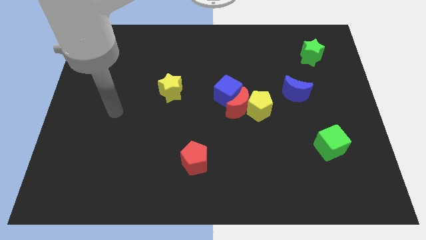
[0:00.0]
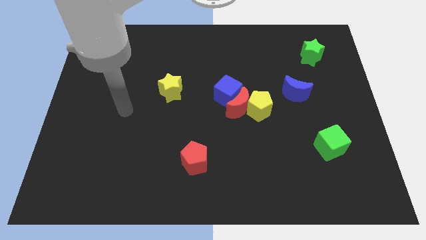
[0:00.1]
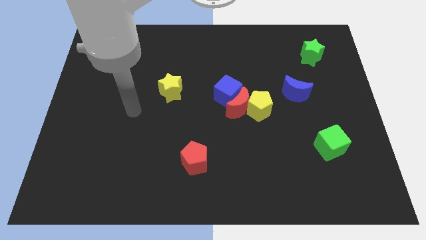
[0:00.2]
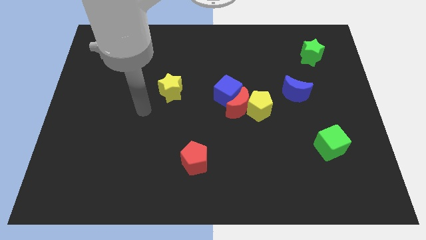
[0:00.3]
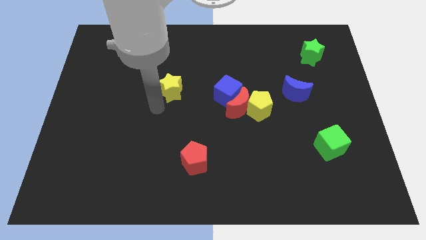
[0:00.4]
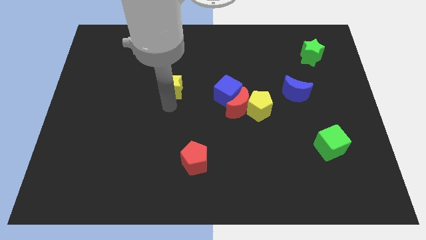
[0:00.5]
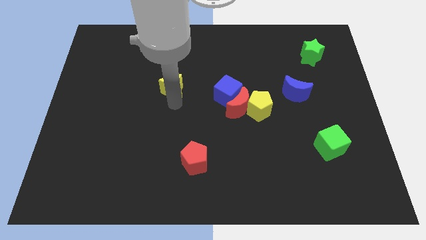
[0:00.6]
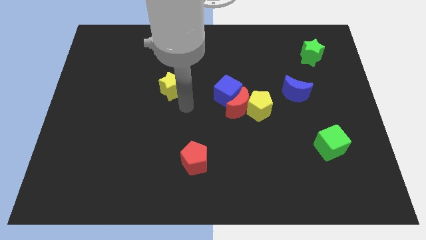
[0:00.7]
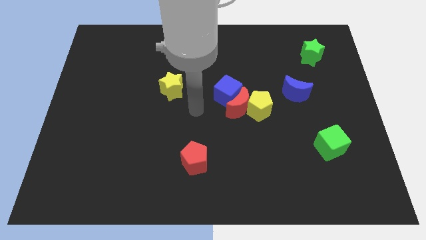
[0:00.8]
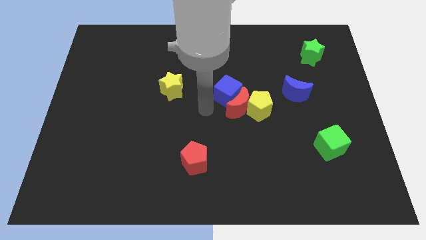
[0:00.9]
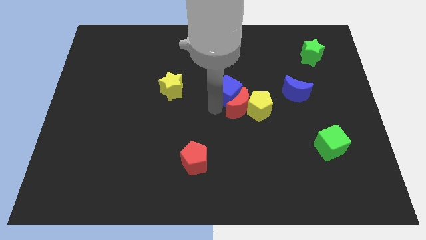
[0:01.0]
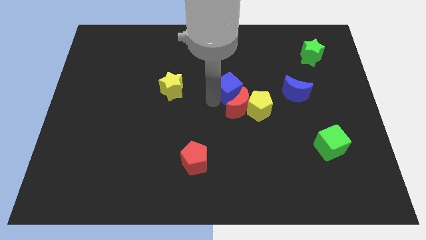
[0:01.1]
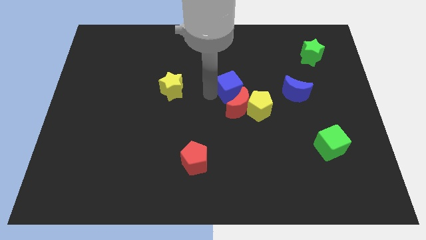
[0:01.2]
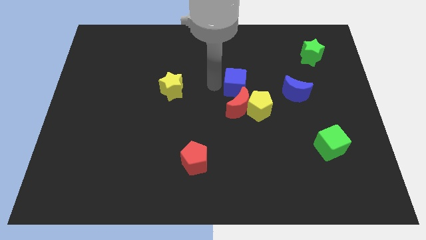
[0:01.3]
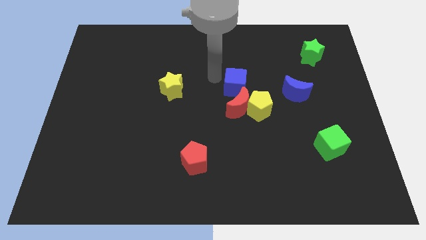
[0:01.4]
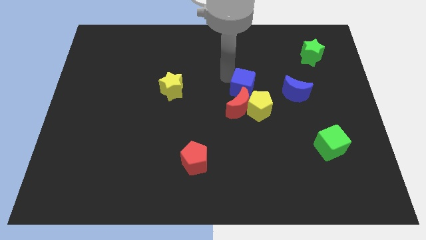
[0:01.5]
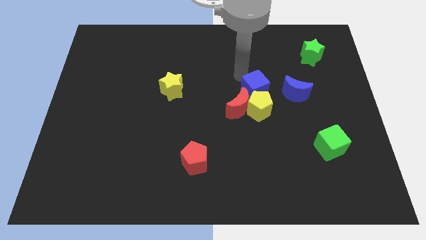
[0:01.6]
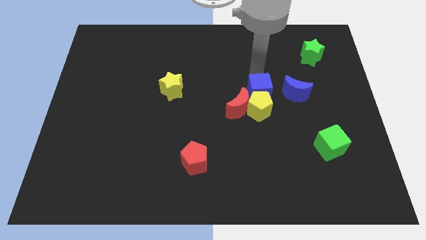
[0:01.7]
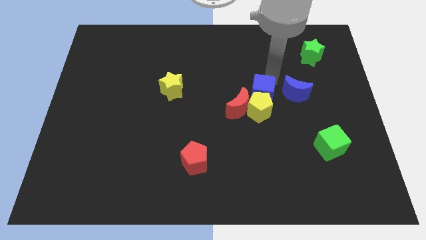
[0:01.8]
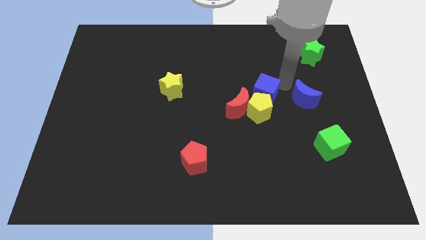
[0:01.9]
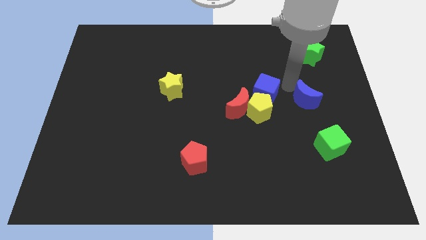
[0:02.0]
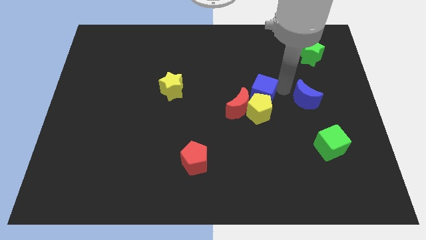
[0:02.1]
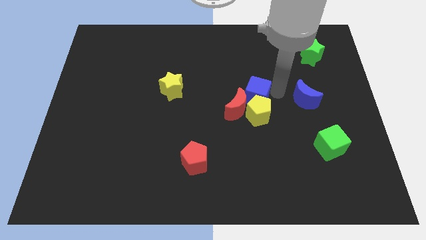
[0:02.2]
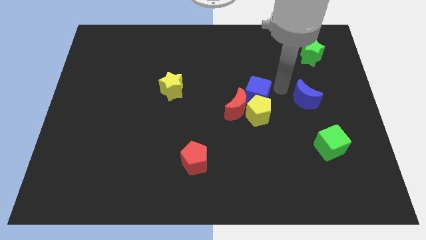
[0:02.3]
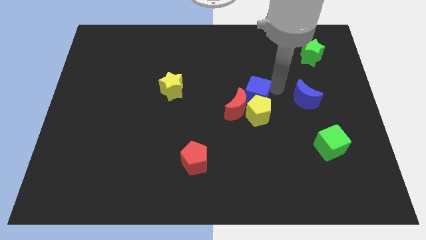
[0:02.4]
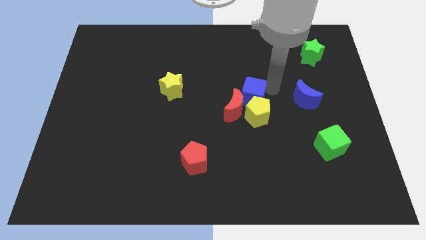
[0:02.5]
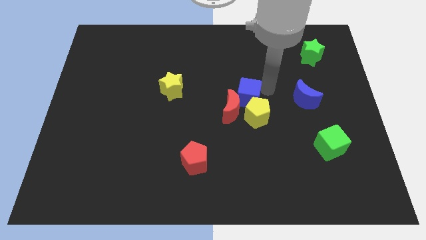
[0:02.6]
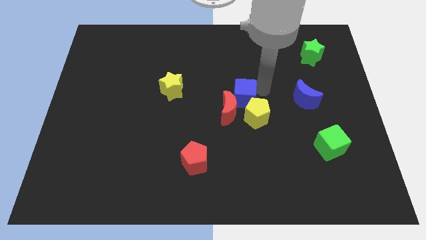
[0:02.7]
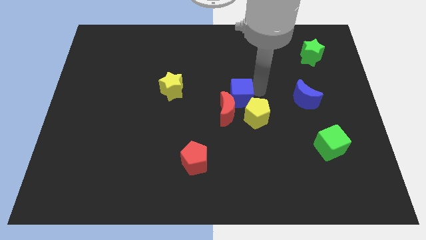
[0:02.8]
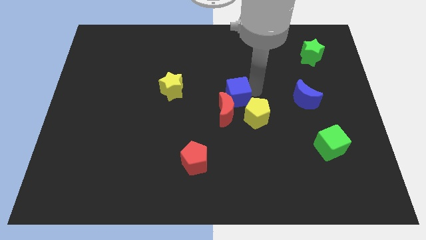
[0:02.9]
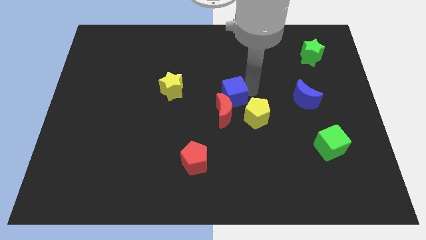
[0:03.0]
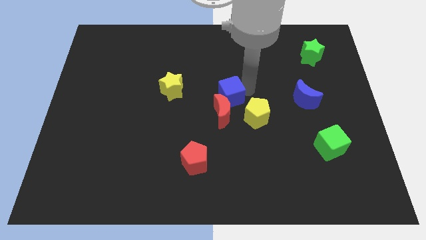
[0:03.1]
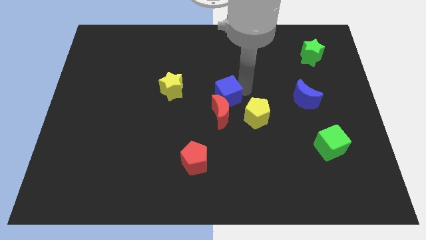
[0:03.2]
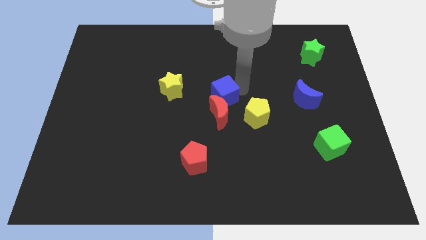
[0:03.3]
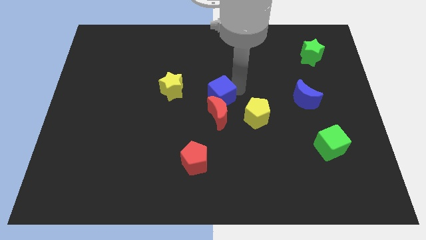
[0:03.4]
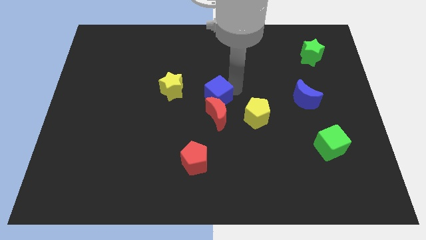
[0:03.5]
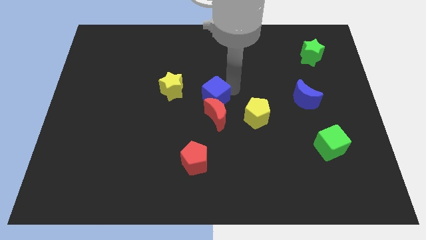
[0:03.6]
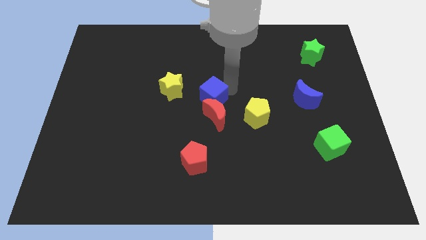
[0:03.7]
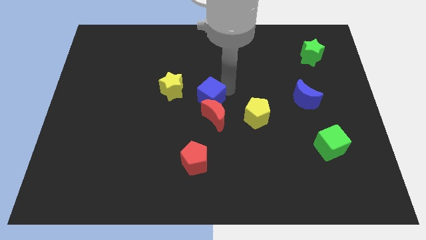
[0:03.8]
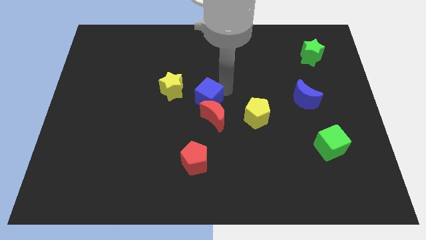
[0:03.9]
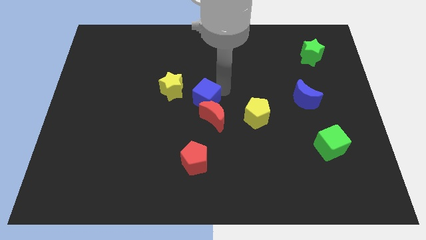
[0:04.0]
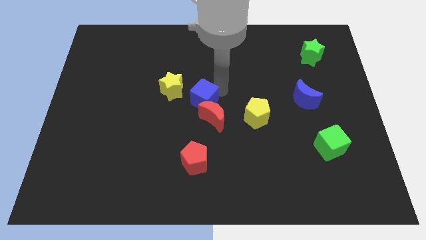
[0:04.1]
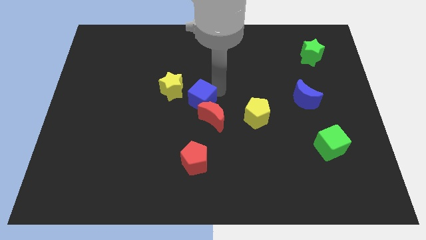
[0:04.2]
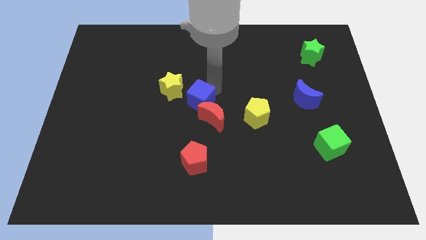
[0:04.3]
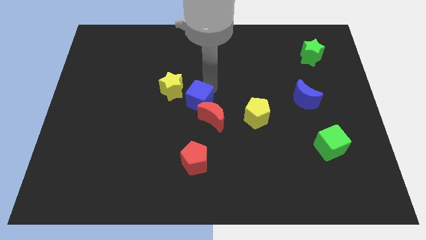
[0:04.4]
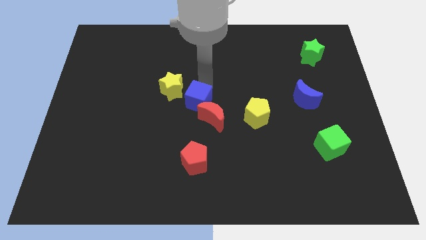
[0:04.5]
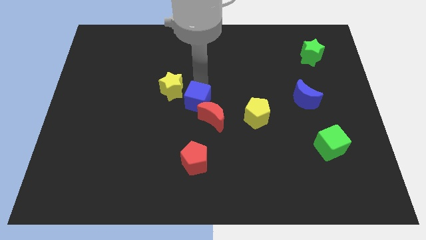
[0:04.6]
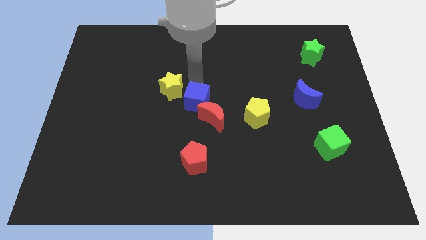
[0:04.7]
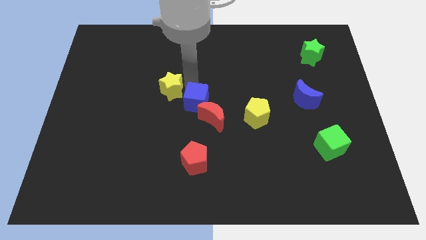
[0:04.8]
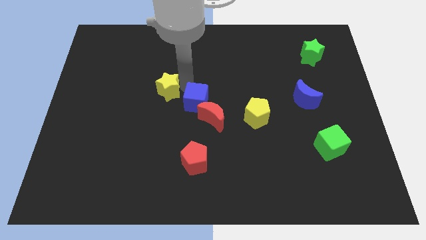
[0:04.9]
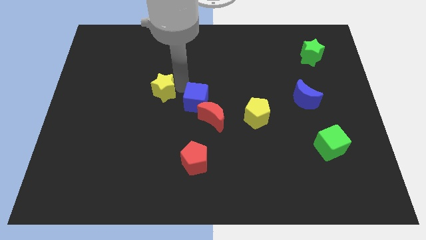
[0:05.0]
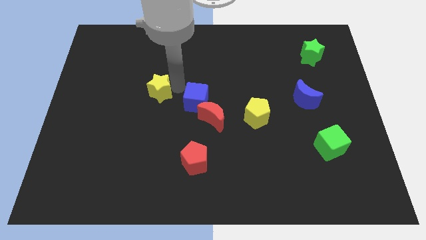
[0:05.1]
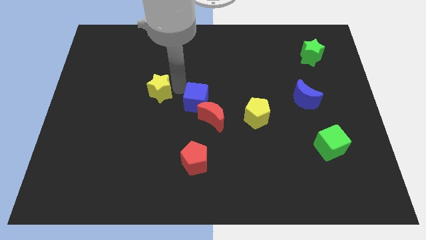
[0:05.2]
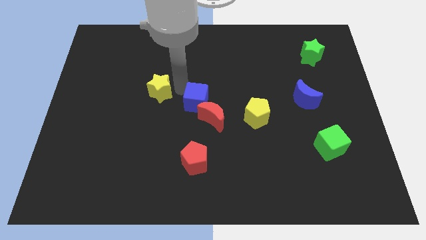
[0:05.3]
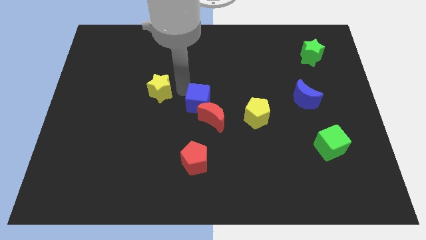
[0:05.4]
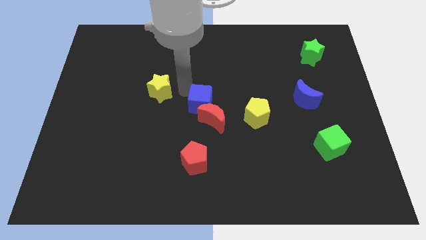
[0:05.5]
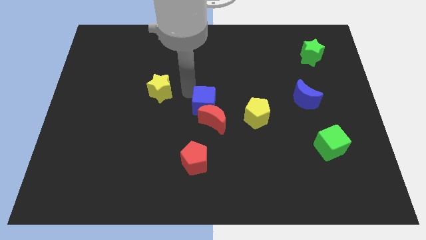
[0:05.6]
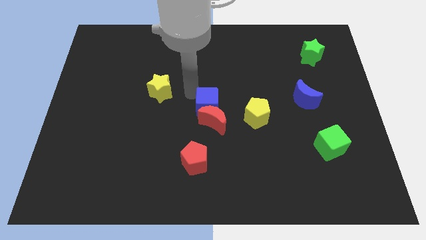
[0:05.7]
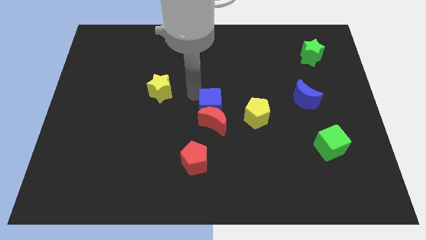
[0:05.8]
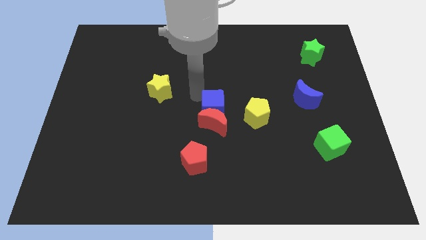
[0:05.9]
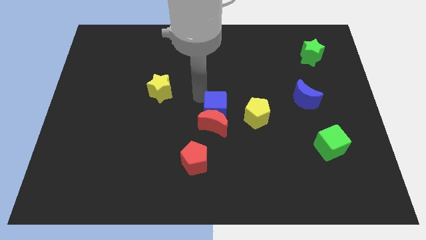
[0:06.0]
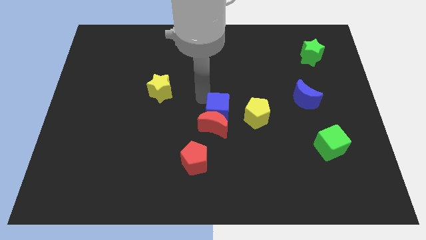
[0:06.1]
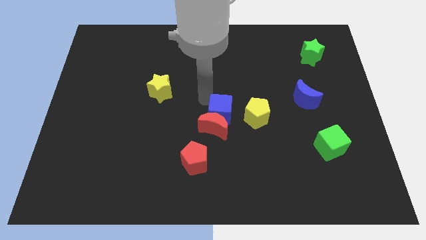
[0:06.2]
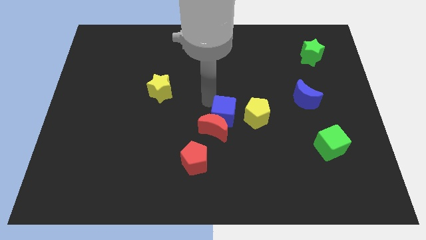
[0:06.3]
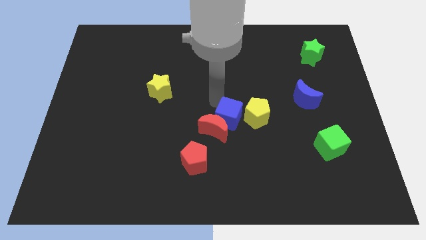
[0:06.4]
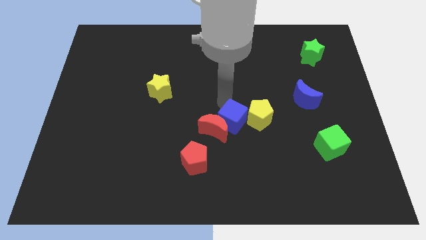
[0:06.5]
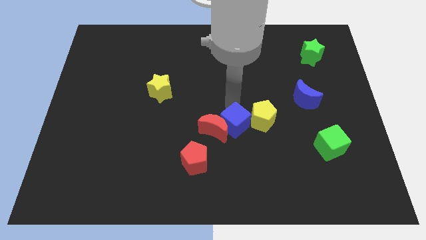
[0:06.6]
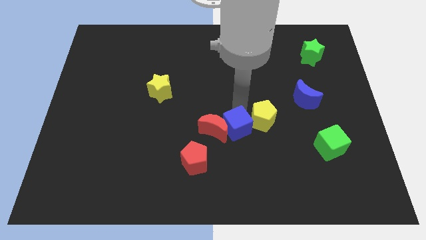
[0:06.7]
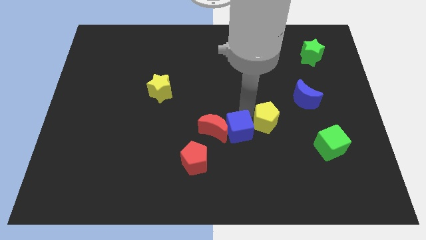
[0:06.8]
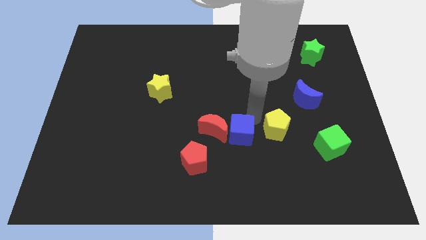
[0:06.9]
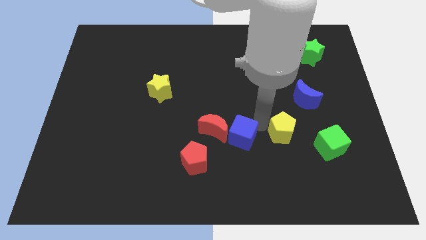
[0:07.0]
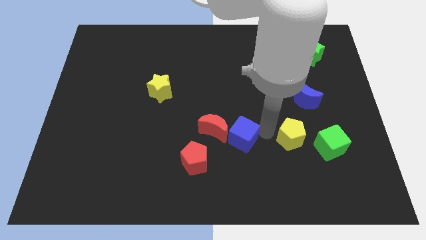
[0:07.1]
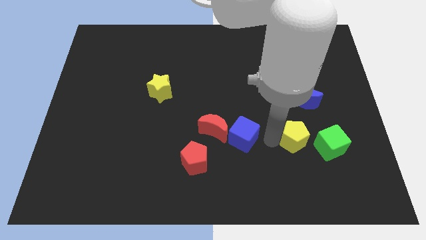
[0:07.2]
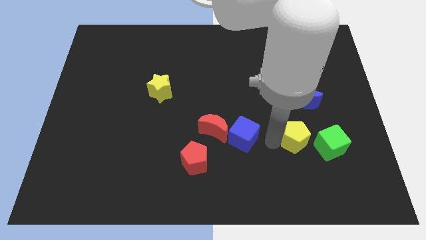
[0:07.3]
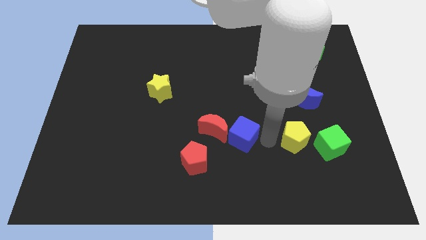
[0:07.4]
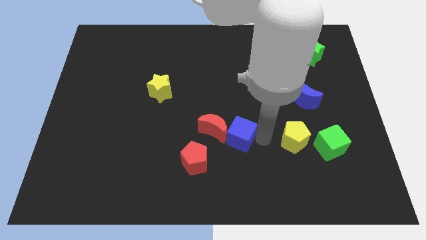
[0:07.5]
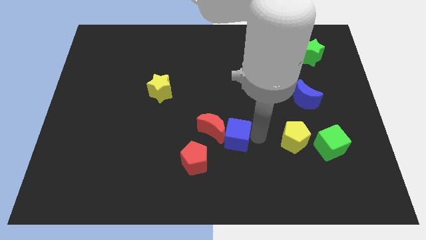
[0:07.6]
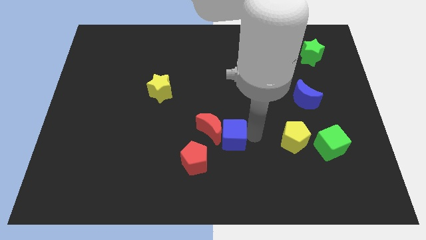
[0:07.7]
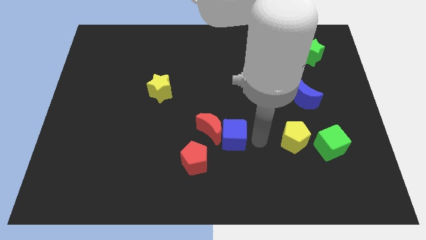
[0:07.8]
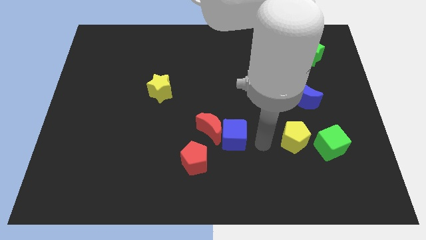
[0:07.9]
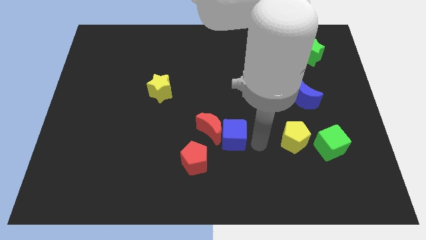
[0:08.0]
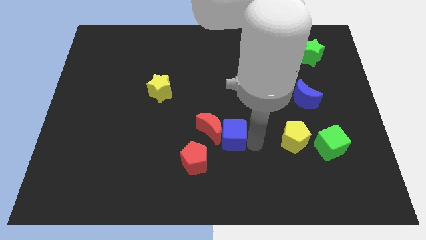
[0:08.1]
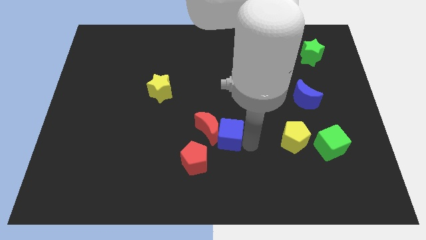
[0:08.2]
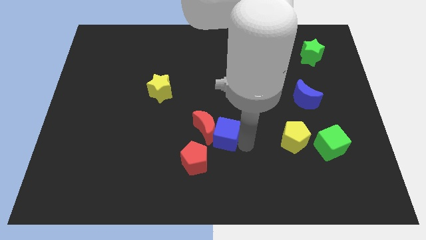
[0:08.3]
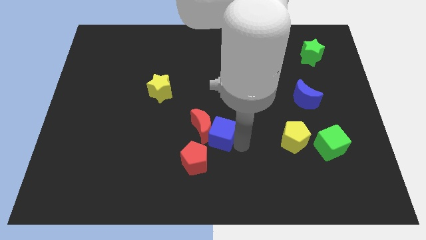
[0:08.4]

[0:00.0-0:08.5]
slightly slide the blue cube downwards and then to the left
